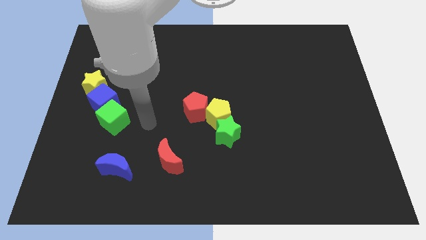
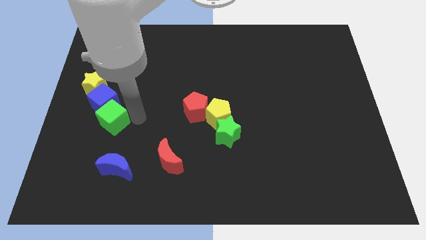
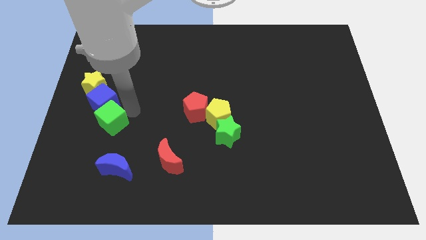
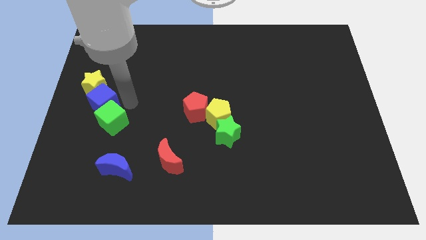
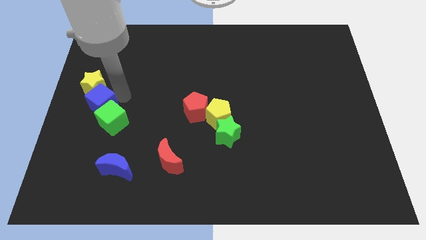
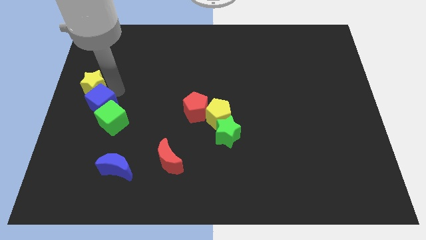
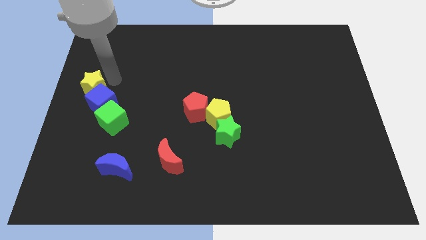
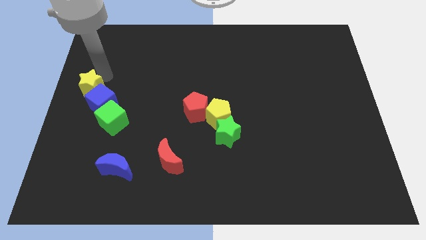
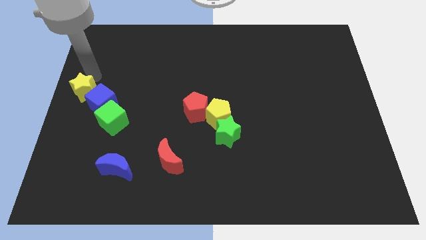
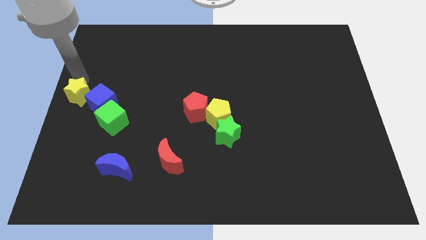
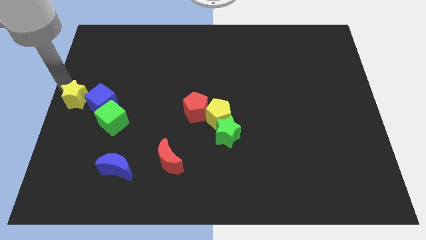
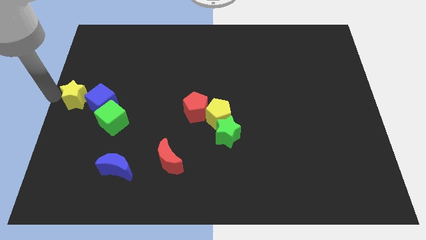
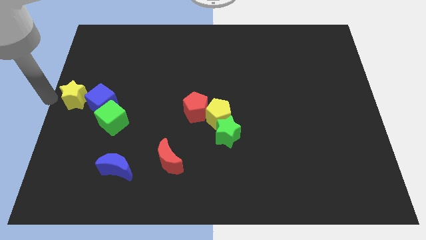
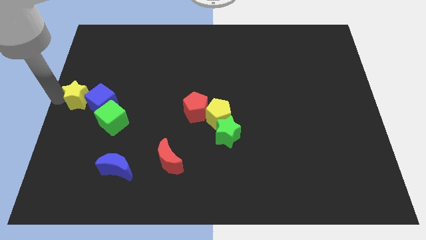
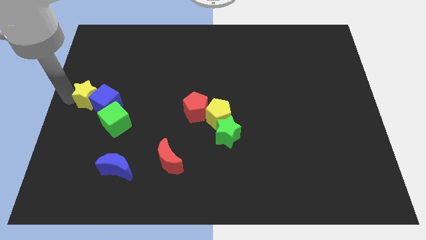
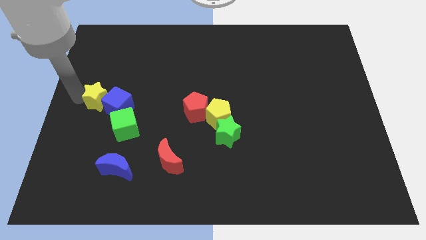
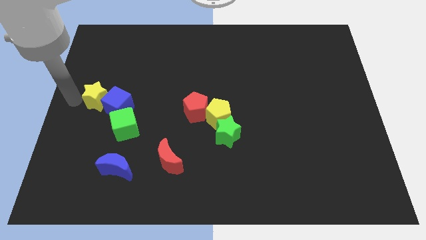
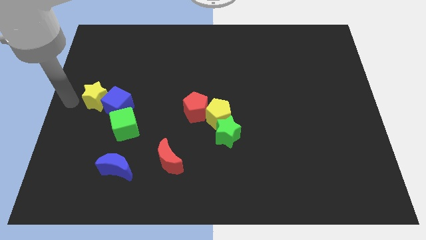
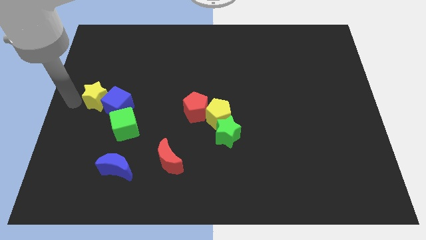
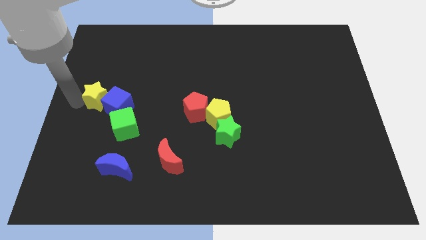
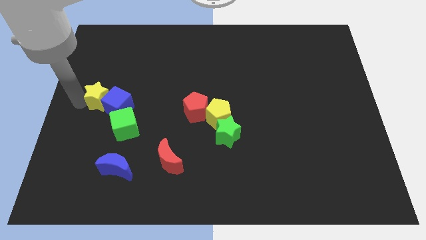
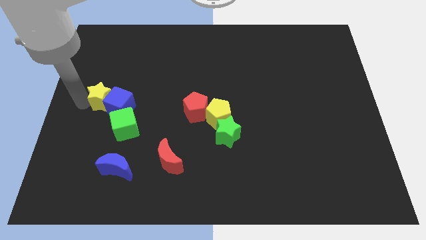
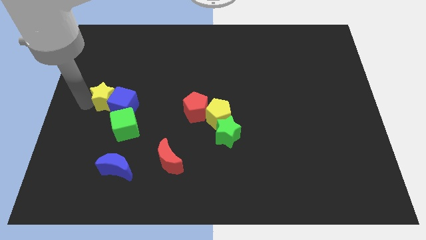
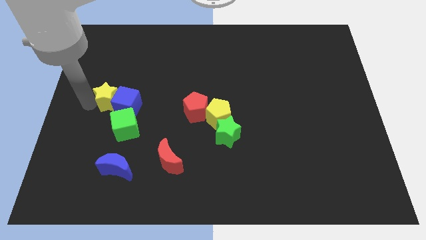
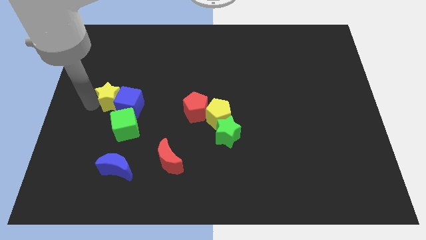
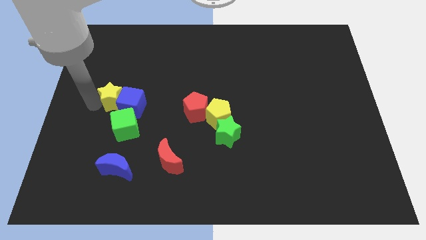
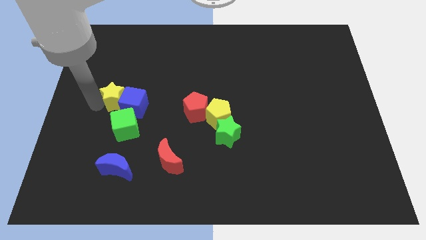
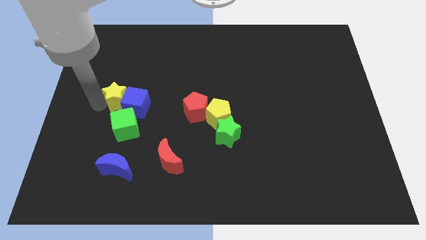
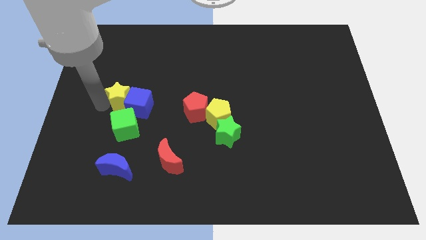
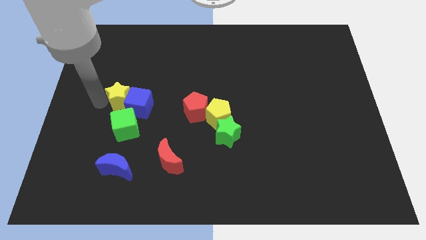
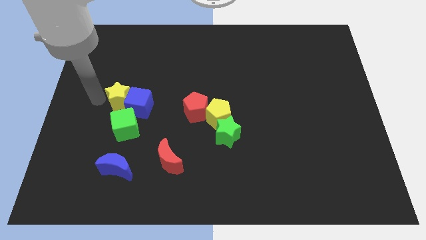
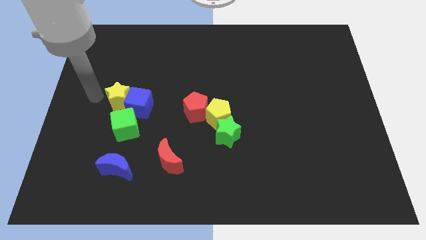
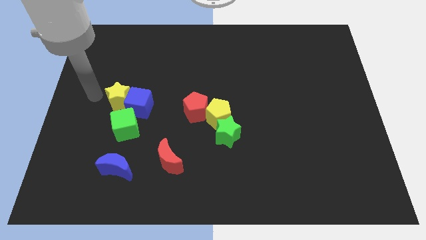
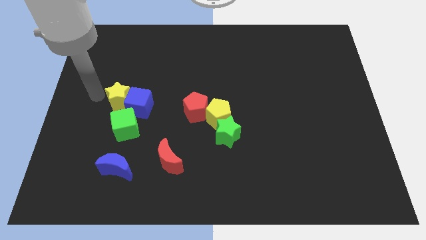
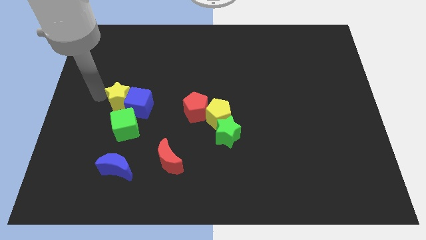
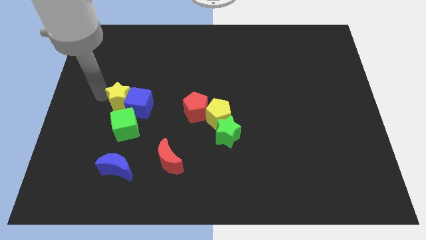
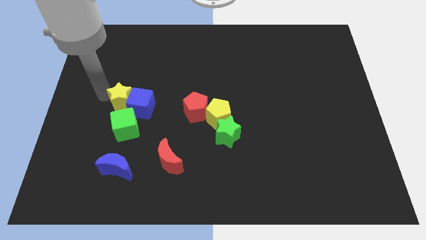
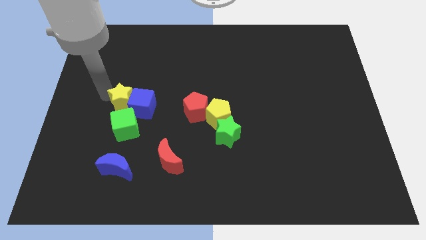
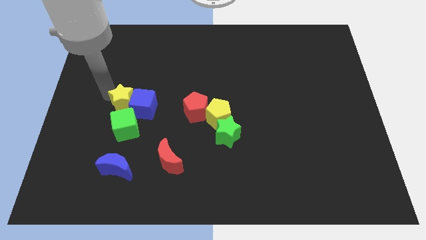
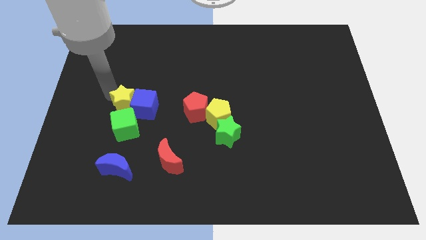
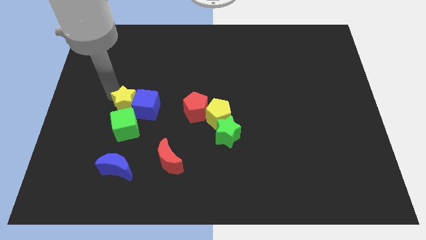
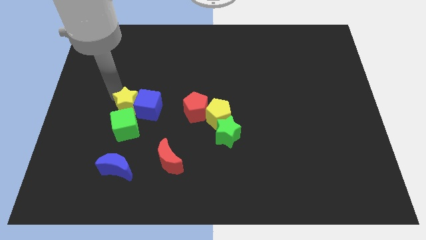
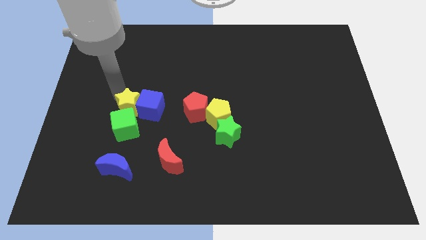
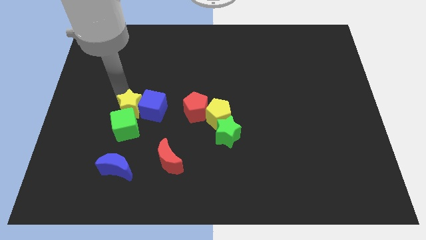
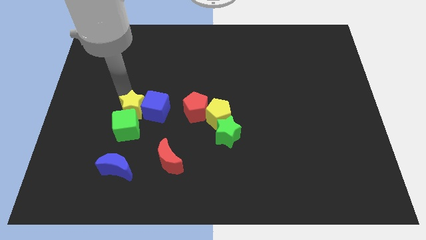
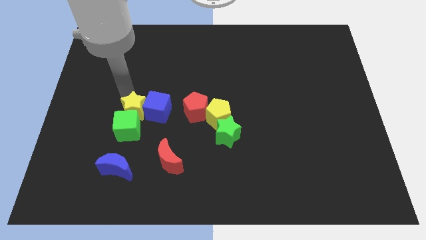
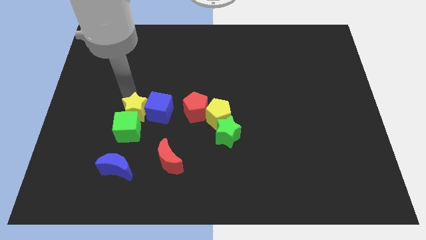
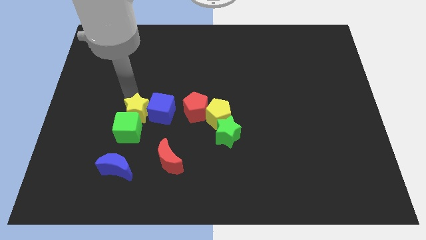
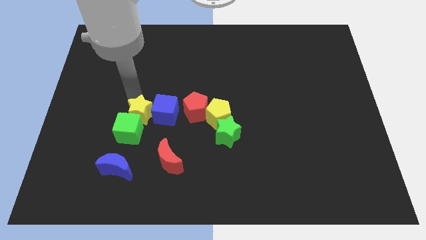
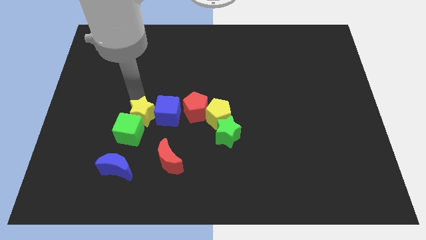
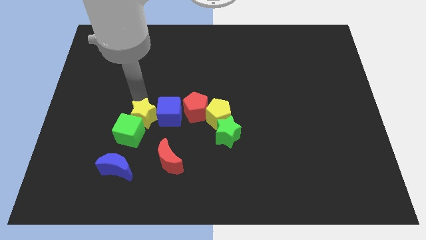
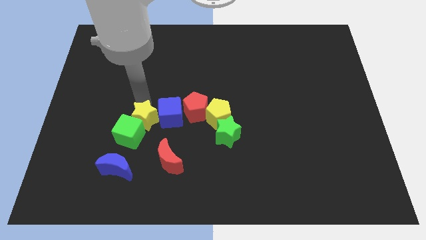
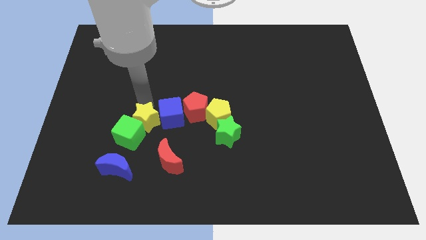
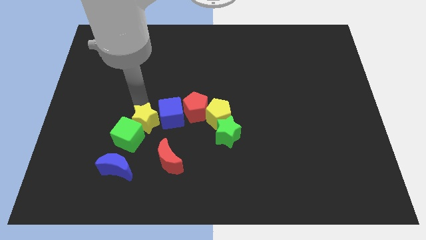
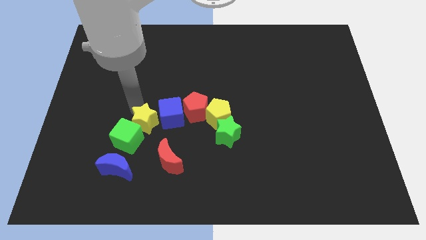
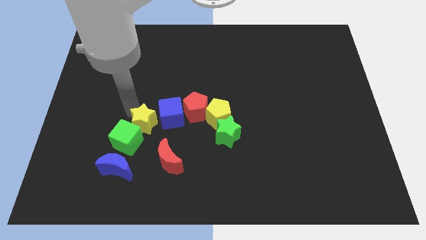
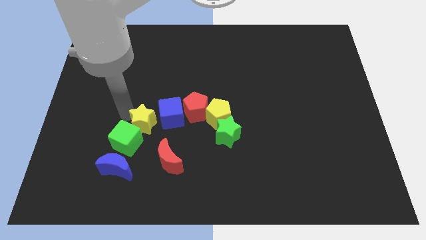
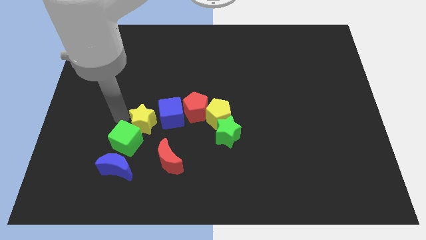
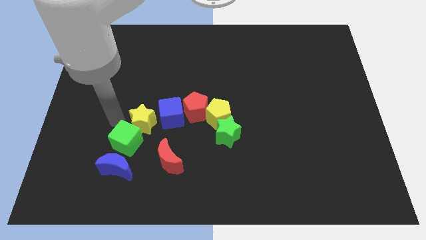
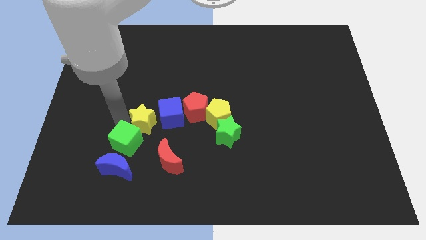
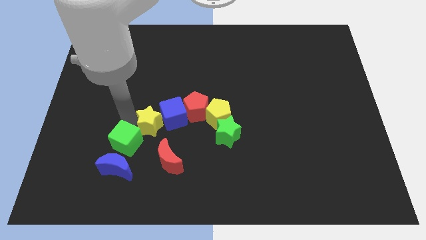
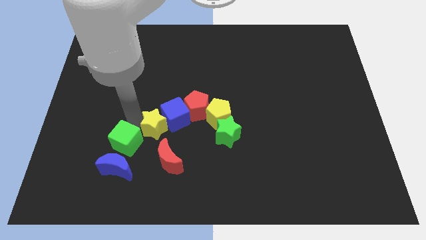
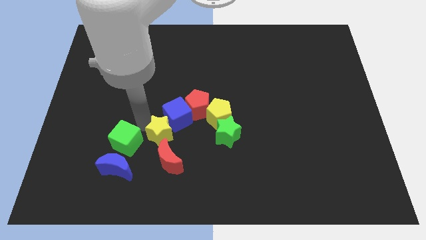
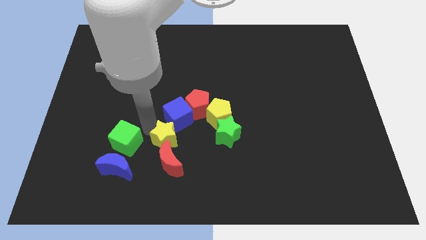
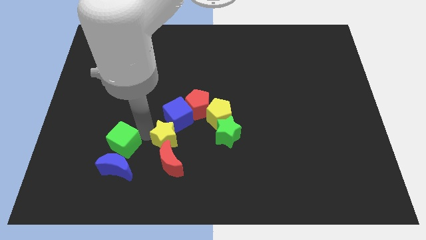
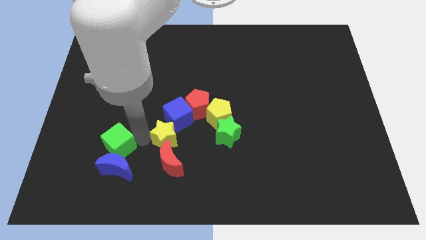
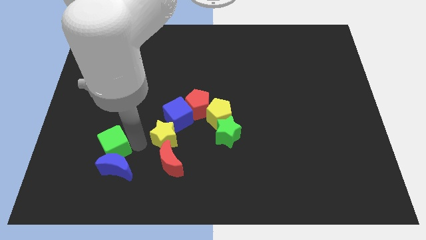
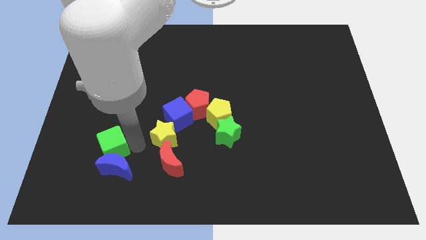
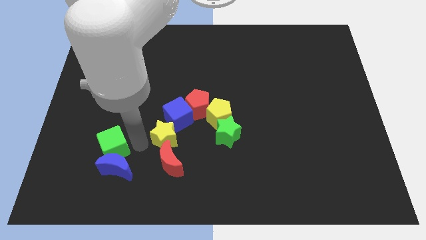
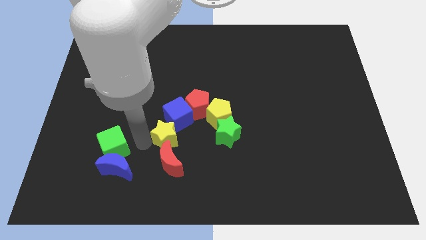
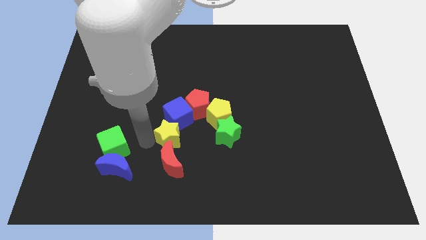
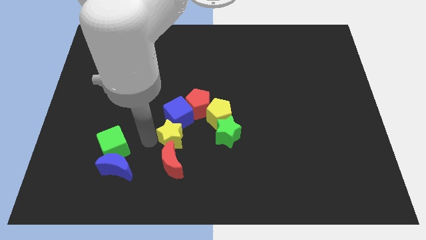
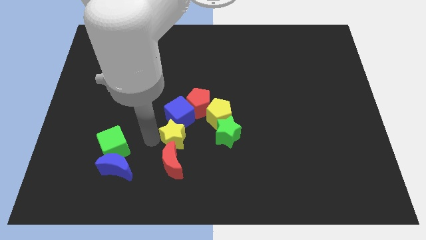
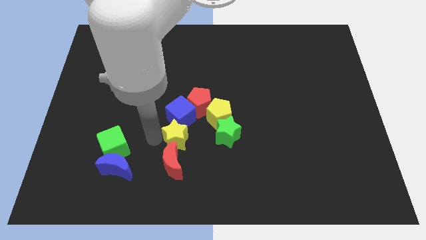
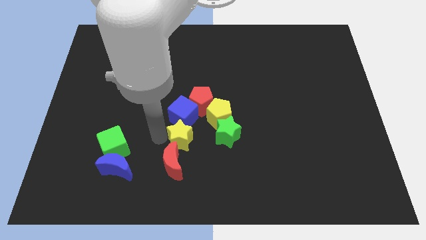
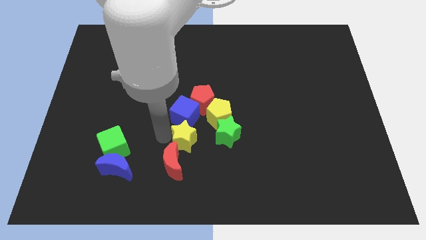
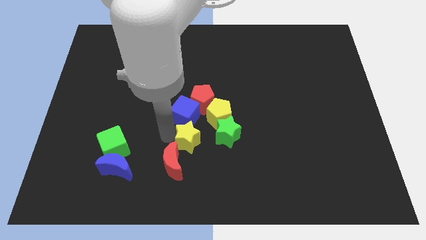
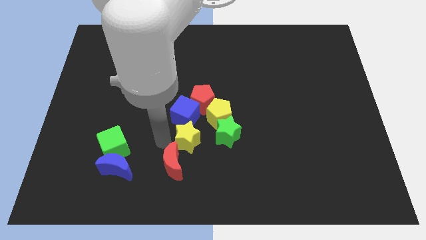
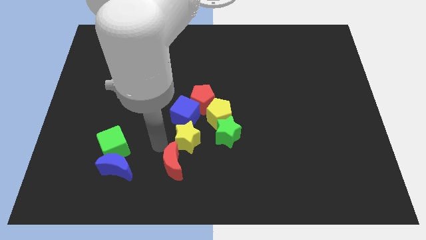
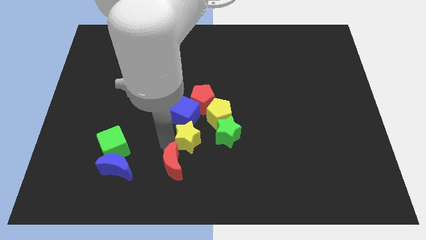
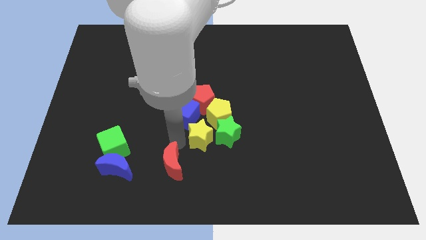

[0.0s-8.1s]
put the yellow star to the green star
